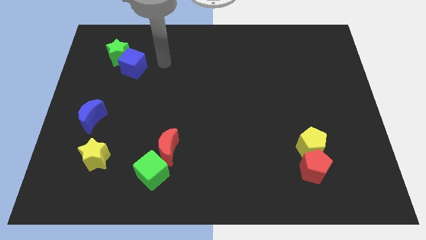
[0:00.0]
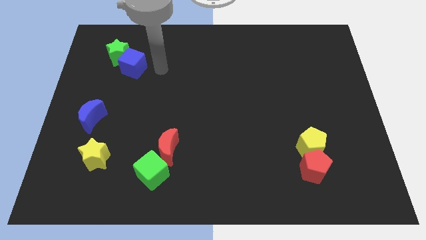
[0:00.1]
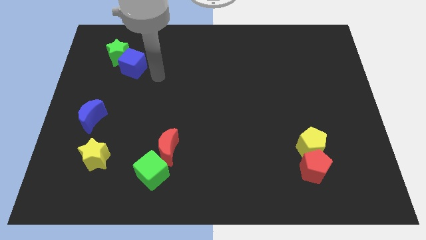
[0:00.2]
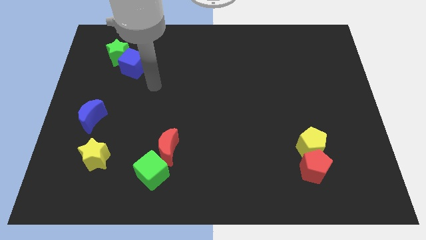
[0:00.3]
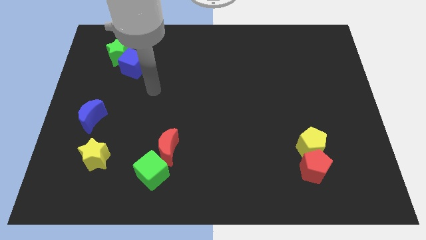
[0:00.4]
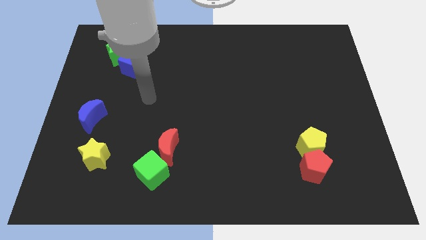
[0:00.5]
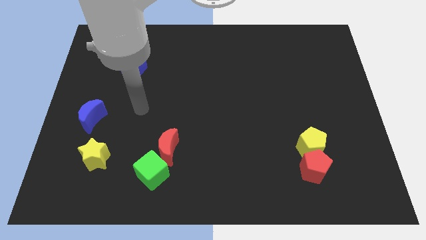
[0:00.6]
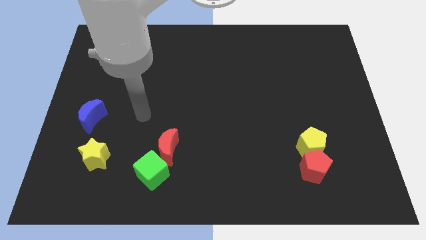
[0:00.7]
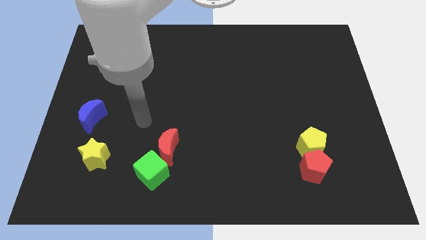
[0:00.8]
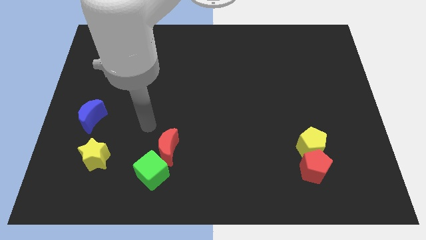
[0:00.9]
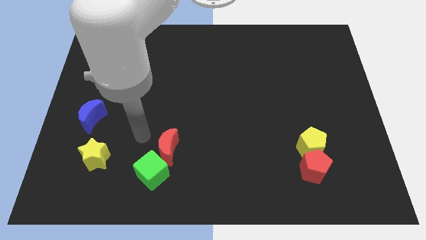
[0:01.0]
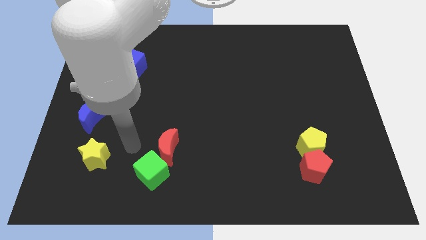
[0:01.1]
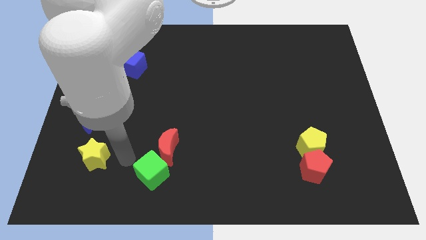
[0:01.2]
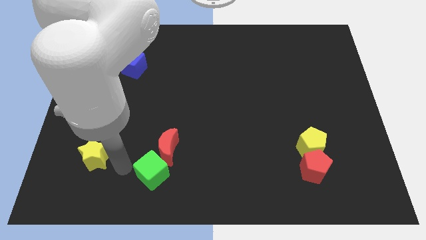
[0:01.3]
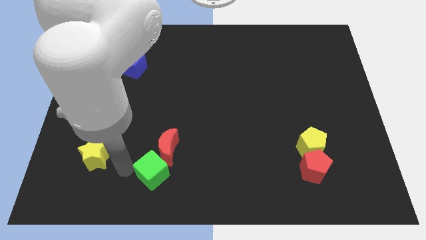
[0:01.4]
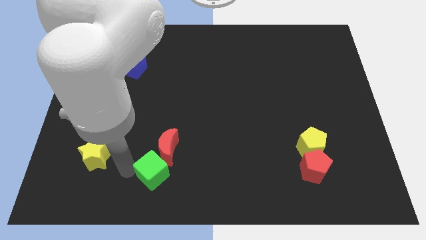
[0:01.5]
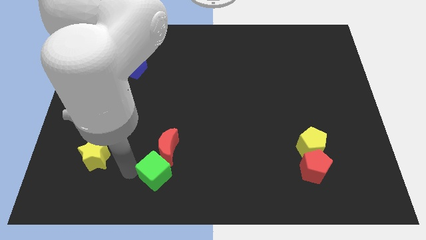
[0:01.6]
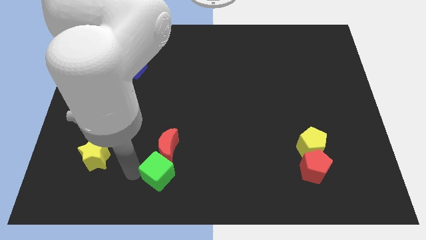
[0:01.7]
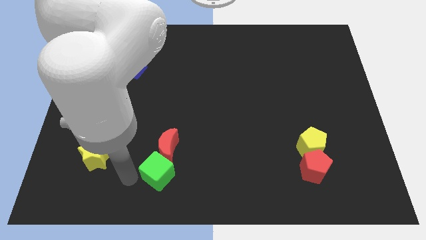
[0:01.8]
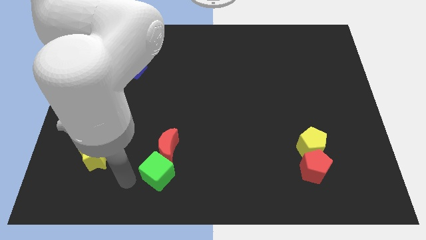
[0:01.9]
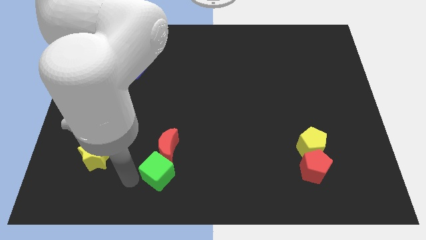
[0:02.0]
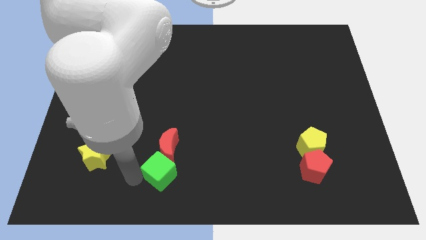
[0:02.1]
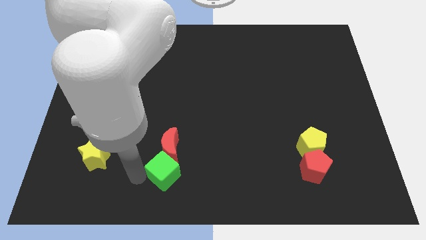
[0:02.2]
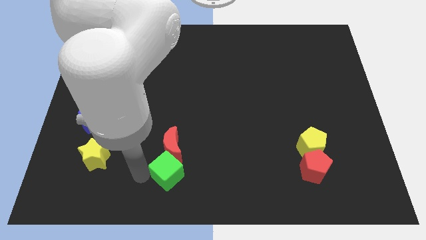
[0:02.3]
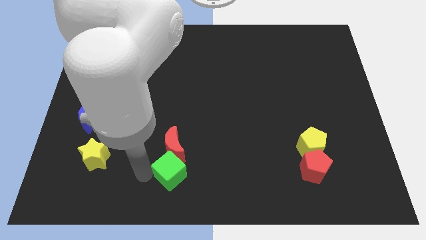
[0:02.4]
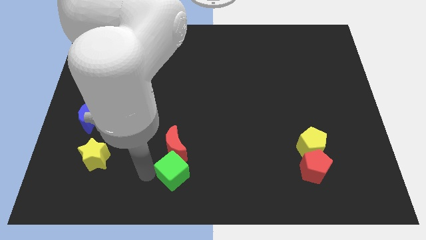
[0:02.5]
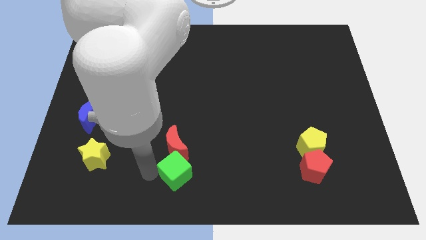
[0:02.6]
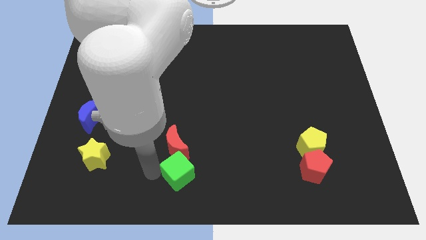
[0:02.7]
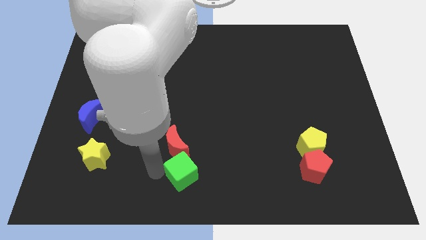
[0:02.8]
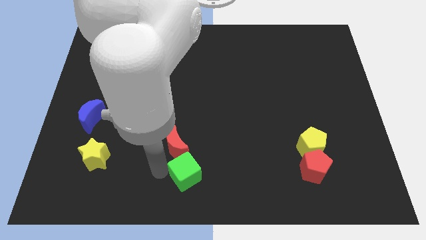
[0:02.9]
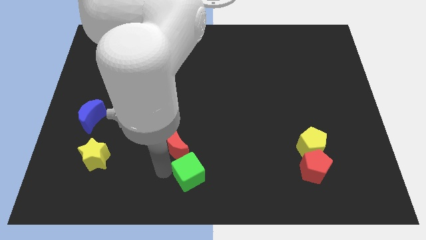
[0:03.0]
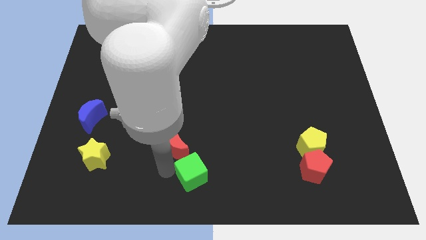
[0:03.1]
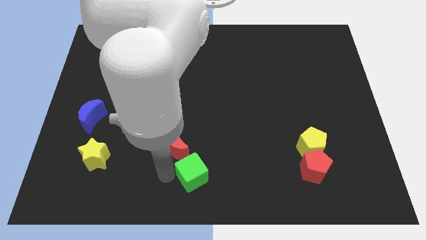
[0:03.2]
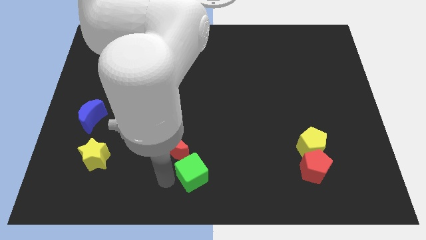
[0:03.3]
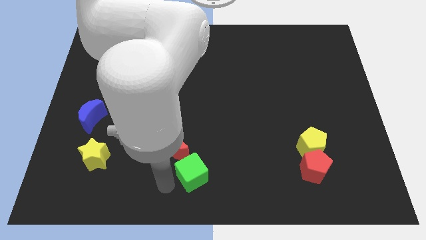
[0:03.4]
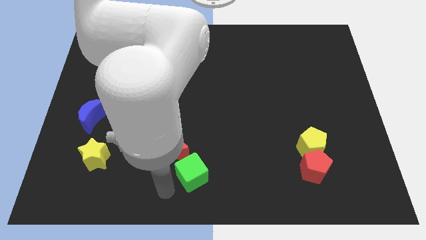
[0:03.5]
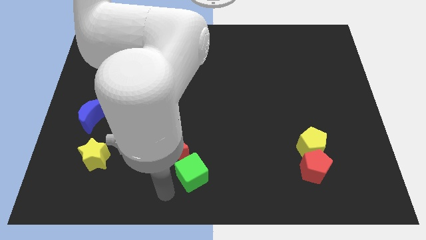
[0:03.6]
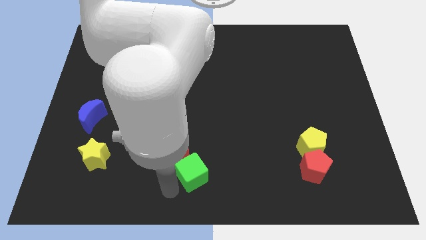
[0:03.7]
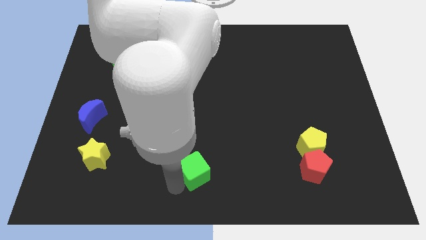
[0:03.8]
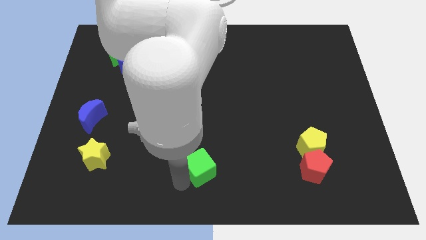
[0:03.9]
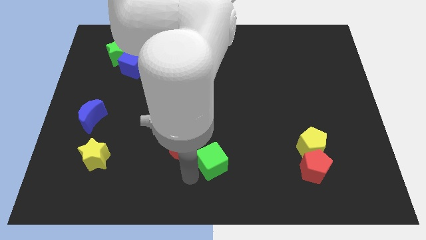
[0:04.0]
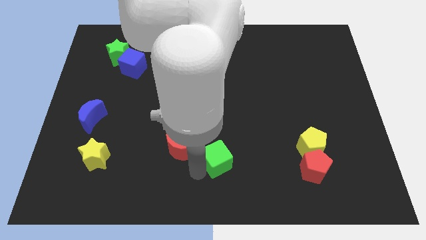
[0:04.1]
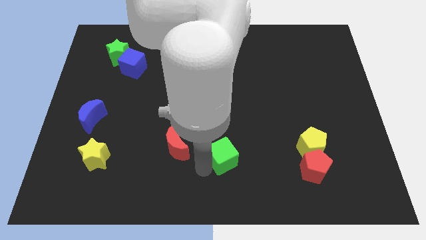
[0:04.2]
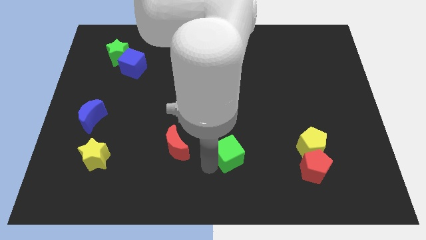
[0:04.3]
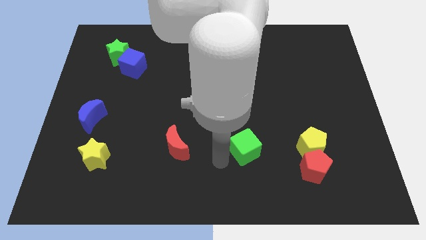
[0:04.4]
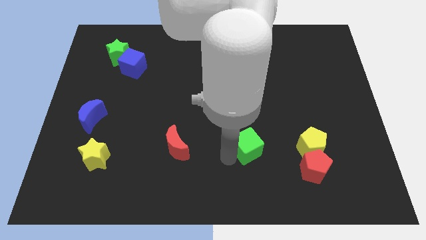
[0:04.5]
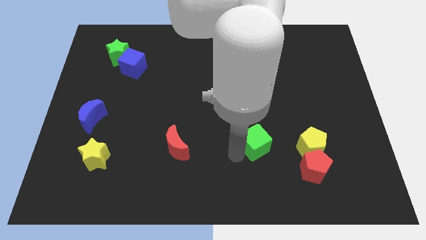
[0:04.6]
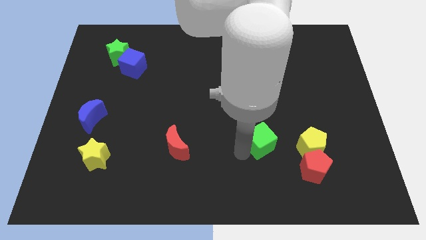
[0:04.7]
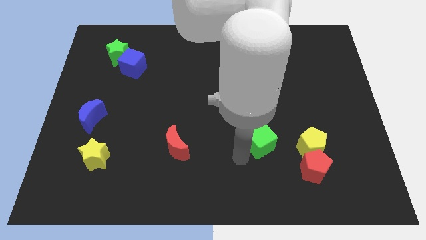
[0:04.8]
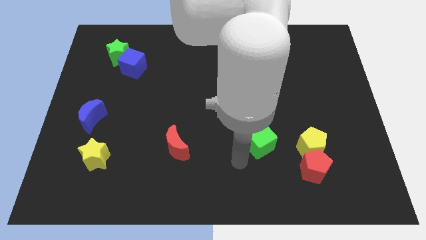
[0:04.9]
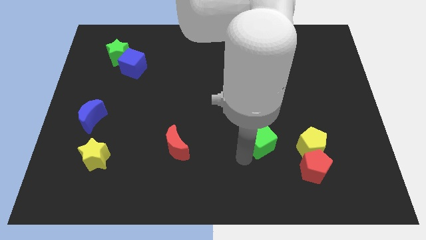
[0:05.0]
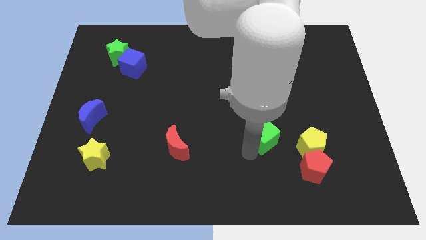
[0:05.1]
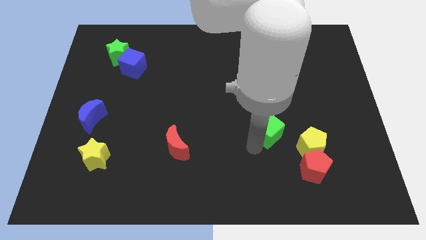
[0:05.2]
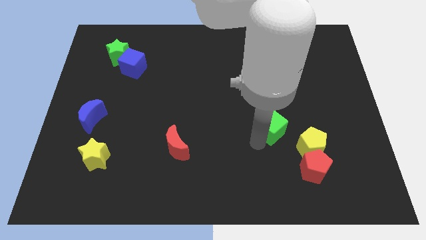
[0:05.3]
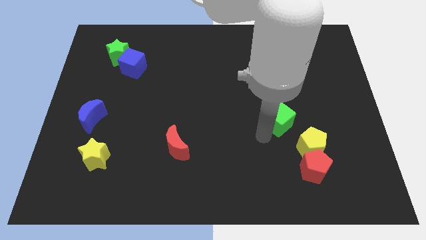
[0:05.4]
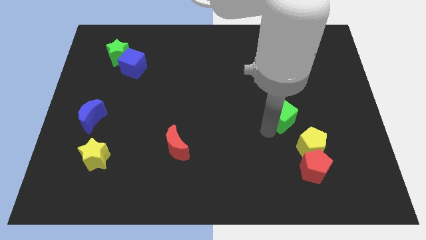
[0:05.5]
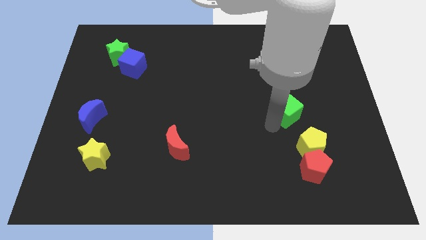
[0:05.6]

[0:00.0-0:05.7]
slide the green cube above the yellow pentagon
